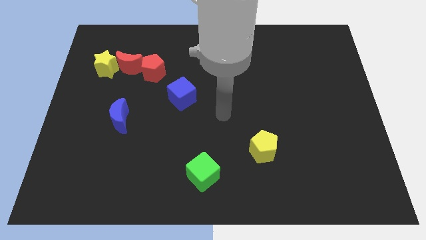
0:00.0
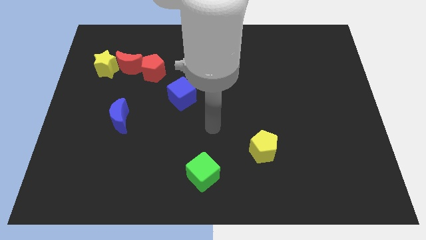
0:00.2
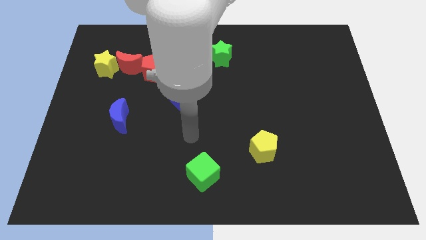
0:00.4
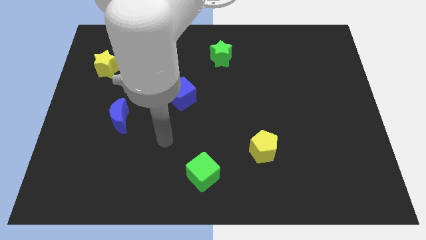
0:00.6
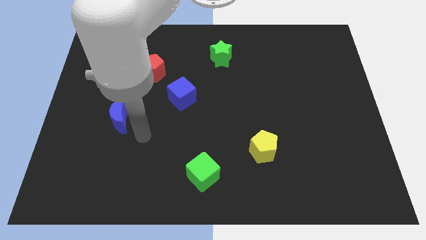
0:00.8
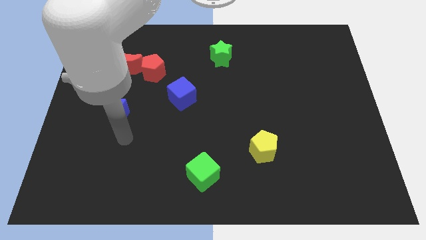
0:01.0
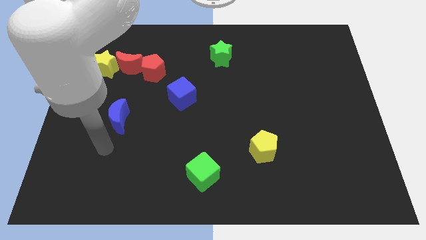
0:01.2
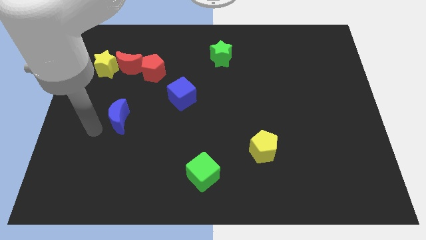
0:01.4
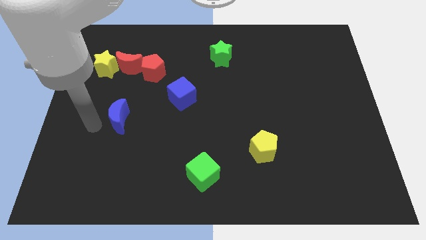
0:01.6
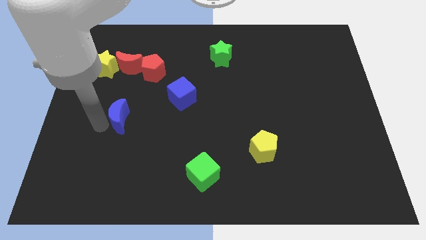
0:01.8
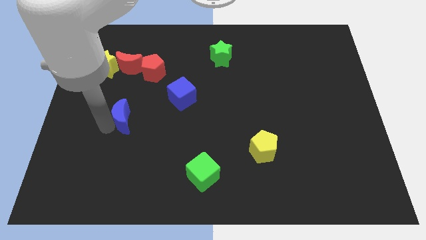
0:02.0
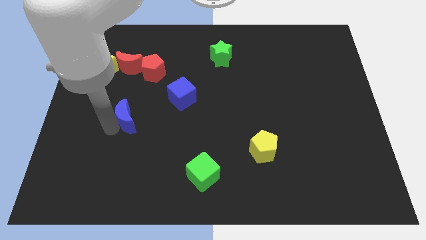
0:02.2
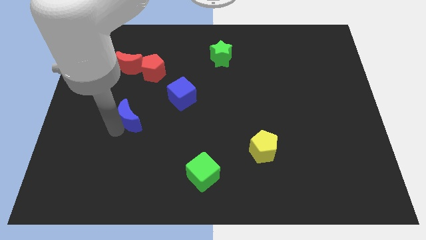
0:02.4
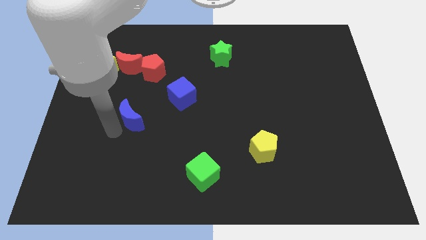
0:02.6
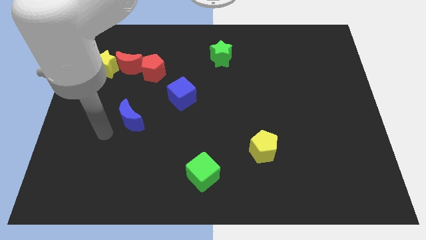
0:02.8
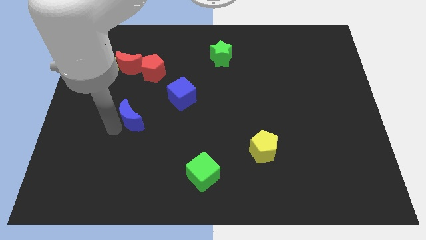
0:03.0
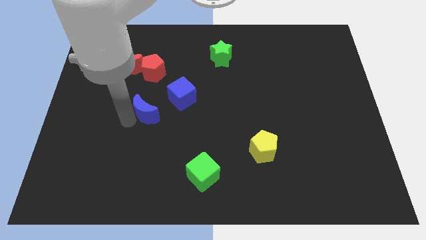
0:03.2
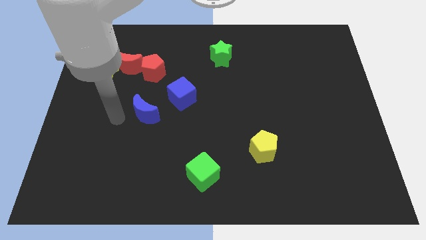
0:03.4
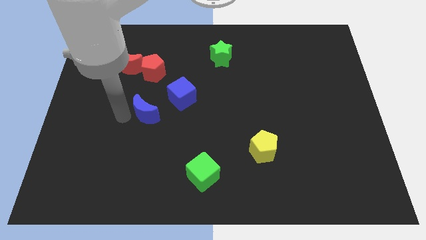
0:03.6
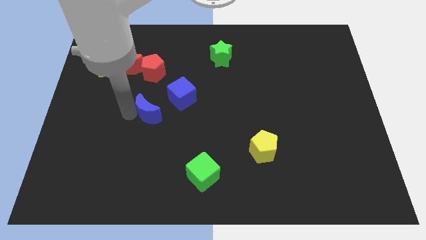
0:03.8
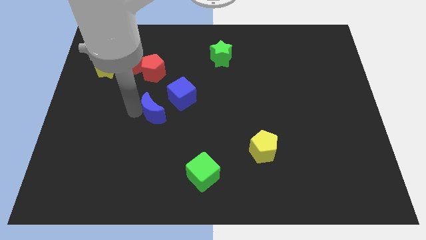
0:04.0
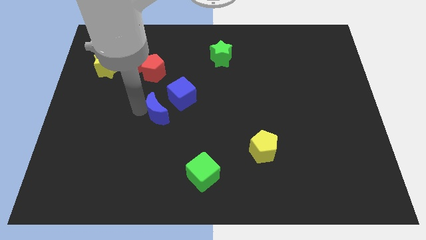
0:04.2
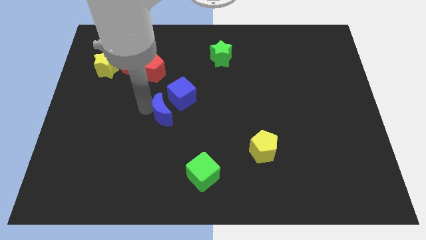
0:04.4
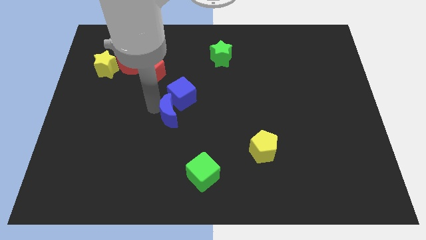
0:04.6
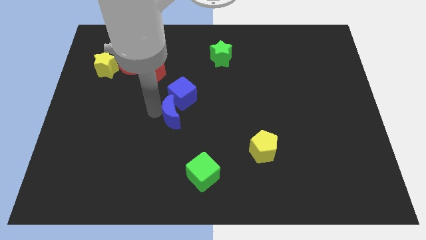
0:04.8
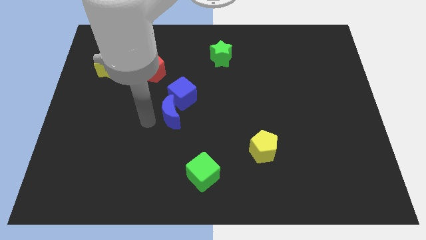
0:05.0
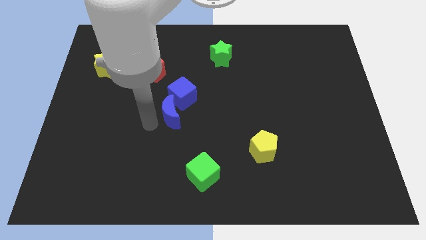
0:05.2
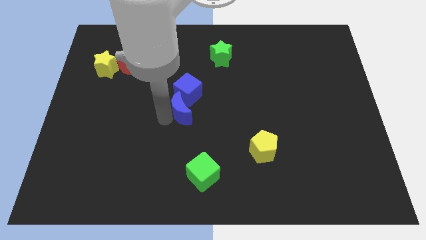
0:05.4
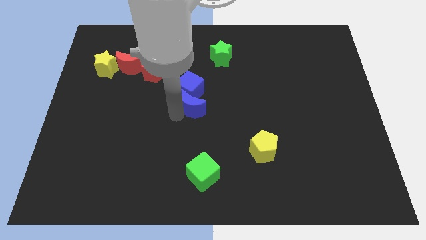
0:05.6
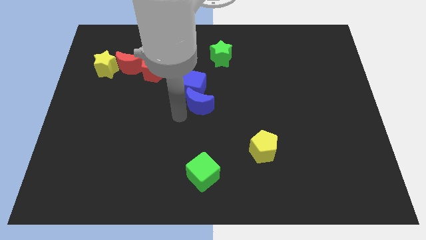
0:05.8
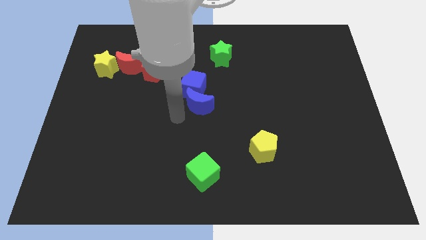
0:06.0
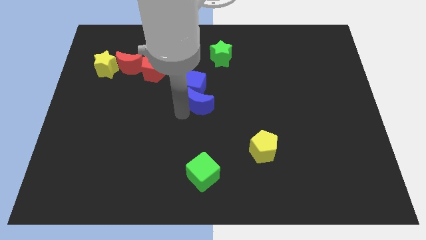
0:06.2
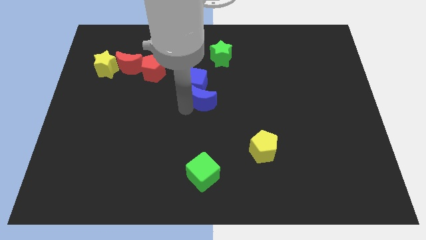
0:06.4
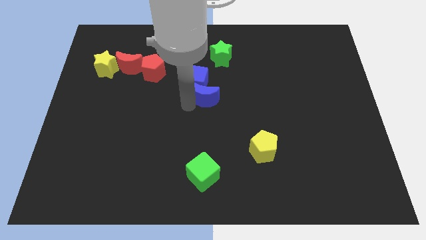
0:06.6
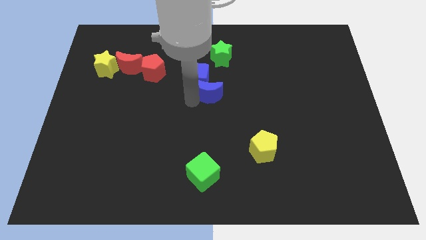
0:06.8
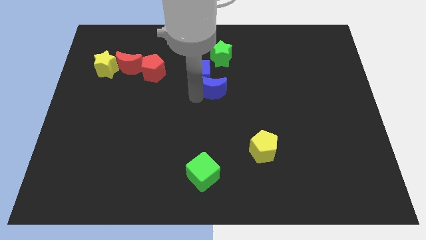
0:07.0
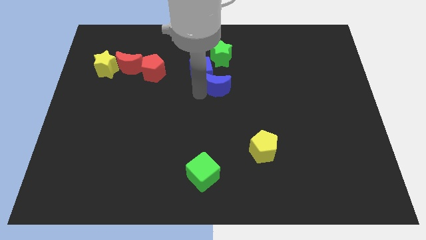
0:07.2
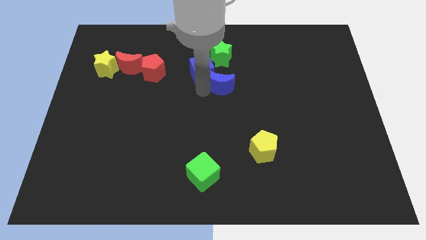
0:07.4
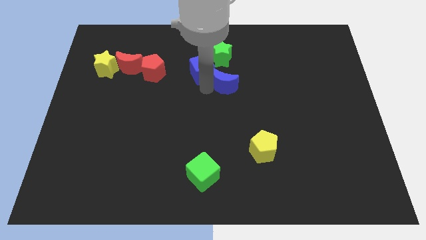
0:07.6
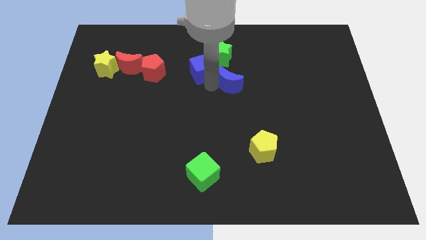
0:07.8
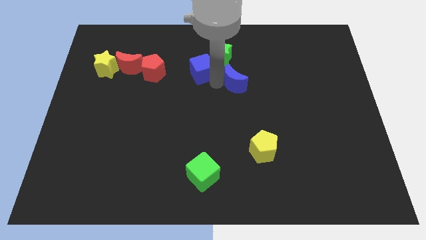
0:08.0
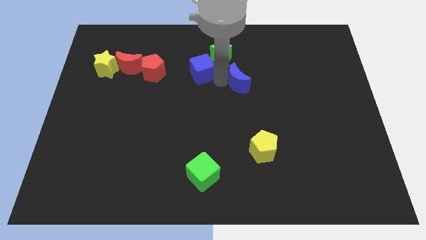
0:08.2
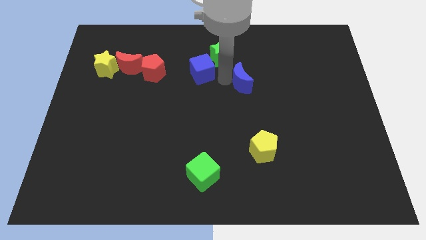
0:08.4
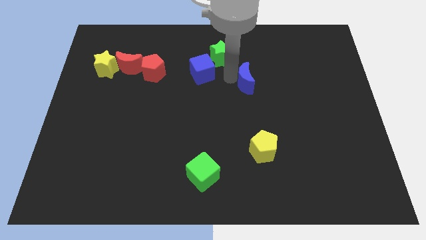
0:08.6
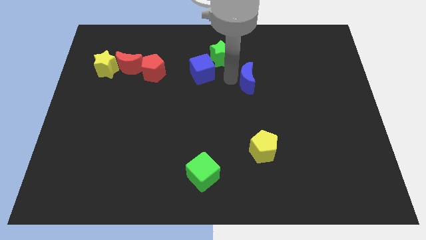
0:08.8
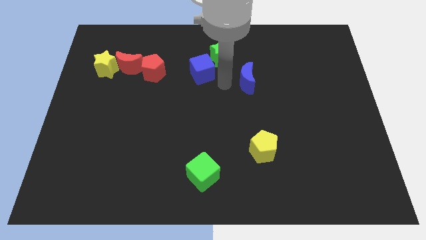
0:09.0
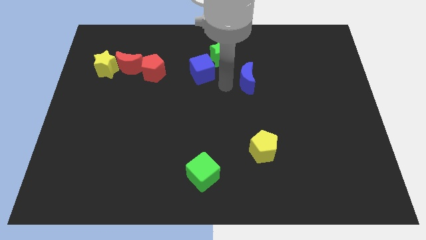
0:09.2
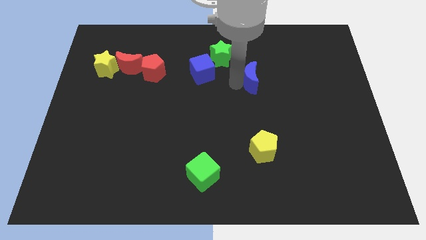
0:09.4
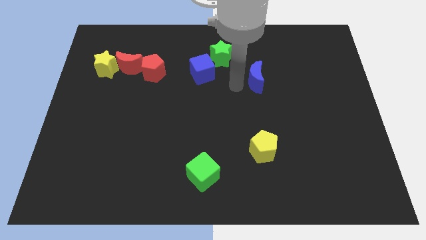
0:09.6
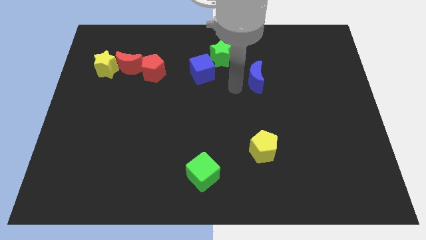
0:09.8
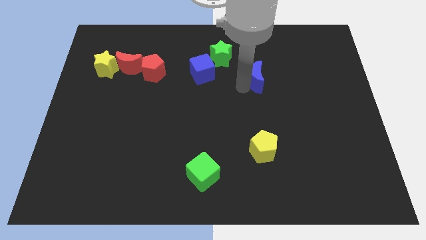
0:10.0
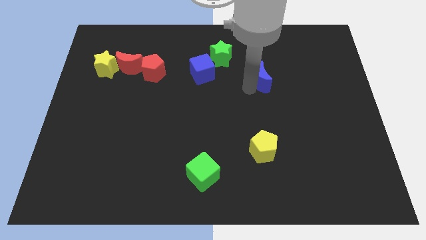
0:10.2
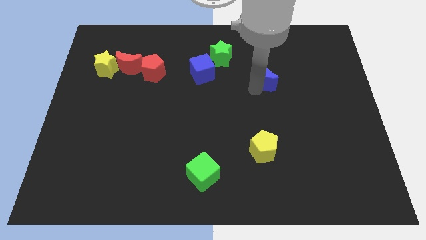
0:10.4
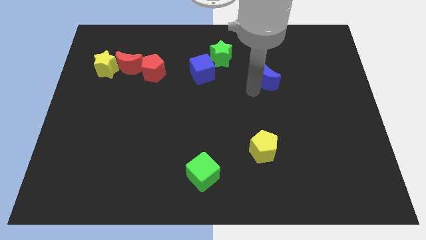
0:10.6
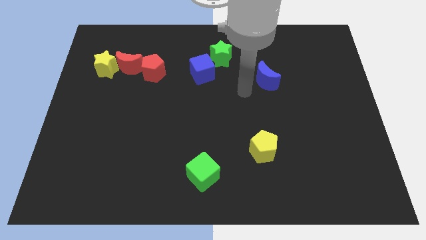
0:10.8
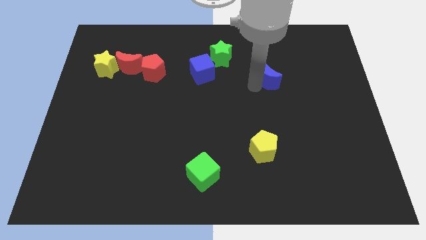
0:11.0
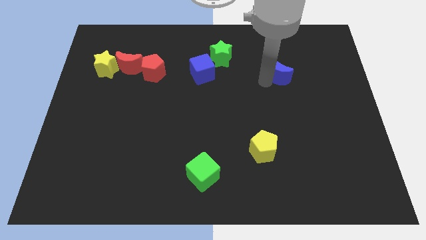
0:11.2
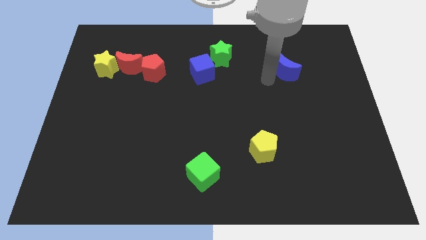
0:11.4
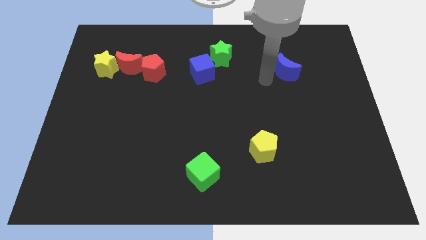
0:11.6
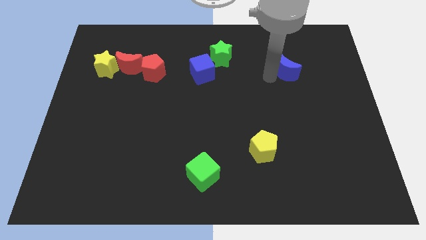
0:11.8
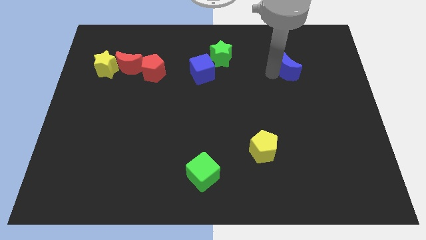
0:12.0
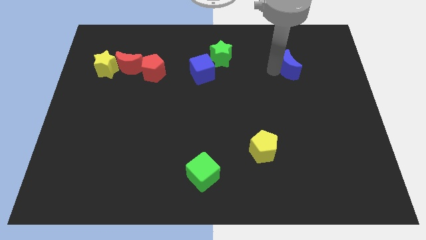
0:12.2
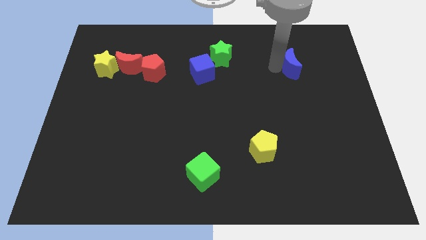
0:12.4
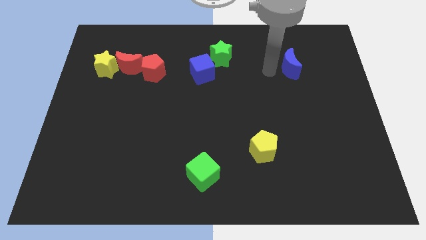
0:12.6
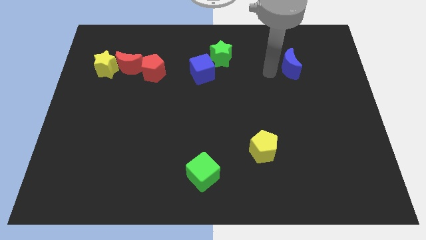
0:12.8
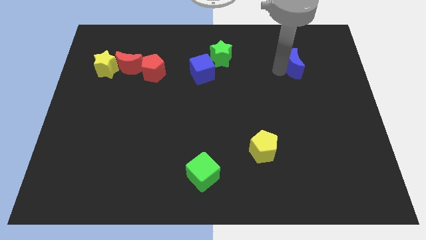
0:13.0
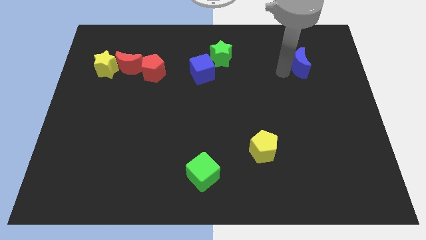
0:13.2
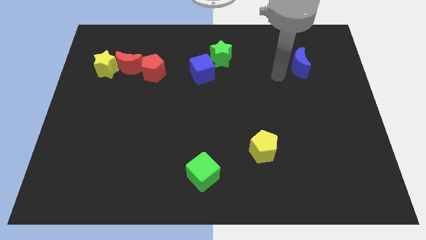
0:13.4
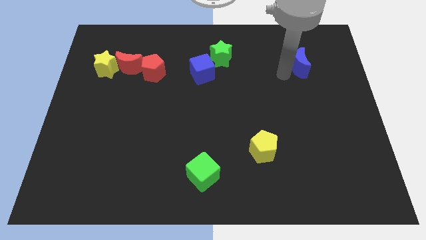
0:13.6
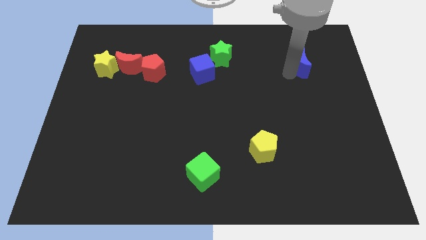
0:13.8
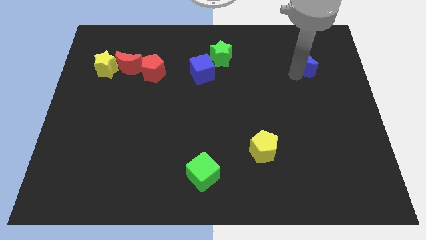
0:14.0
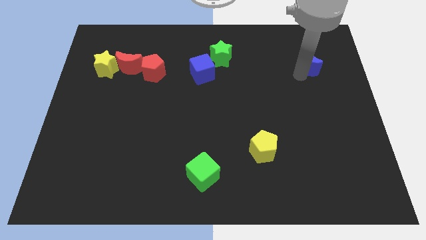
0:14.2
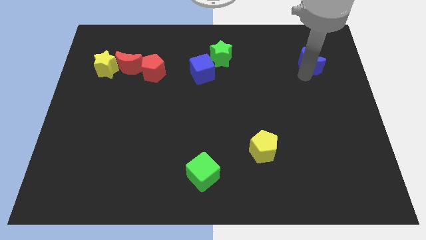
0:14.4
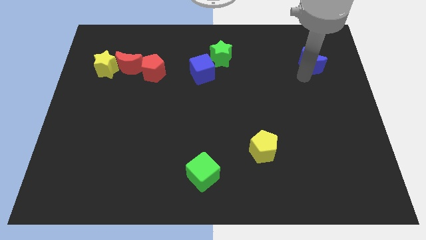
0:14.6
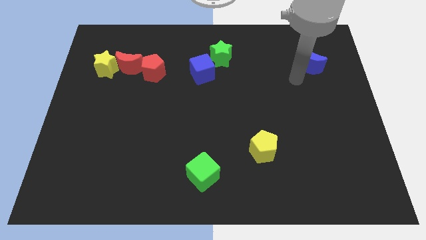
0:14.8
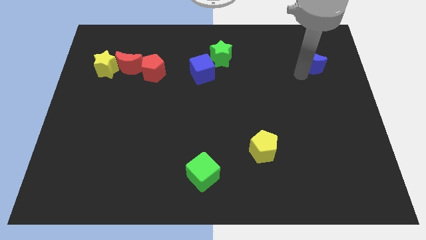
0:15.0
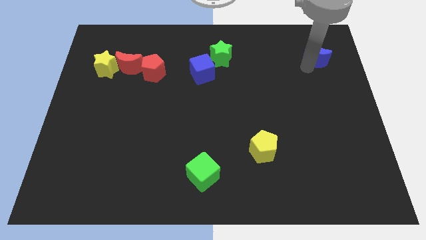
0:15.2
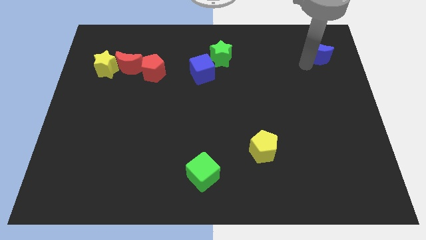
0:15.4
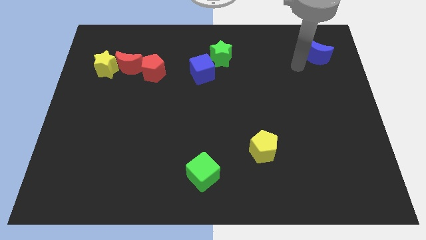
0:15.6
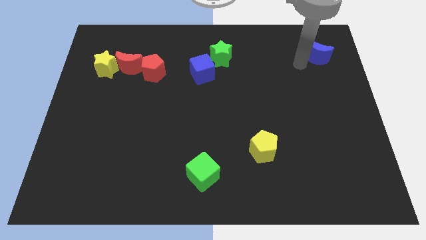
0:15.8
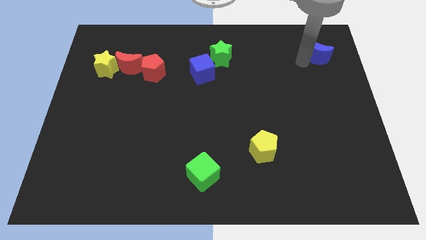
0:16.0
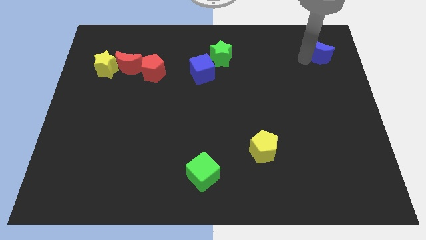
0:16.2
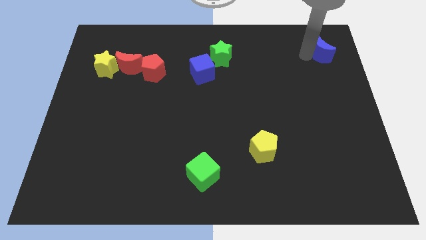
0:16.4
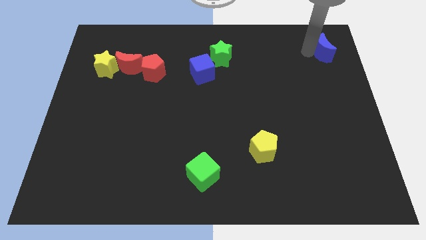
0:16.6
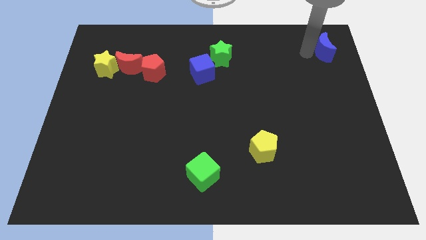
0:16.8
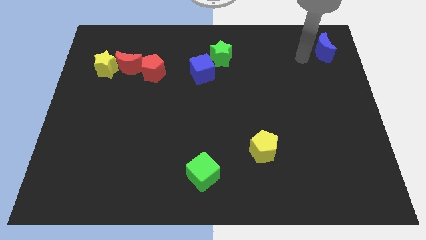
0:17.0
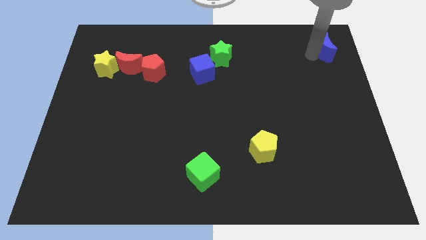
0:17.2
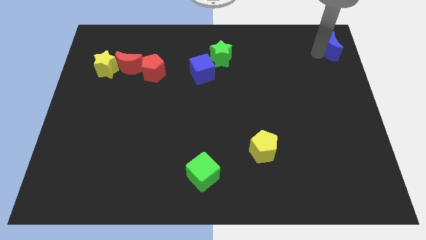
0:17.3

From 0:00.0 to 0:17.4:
push the blue moon to the upper right corner
